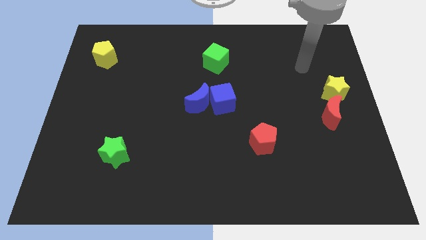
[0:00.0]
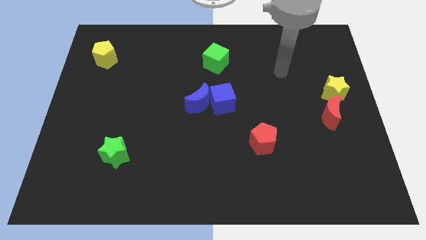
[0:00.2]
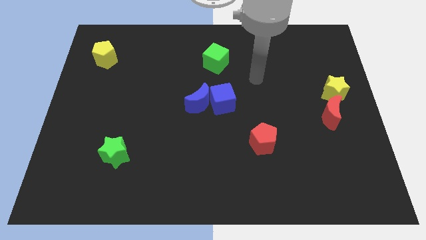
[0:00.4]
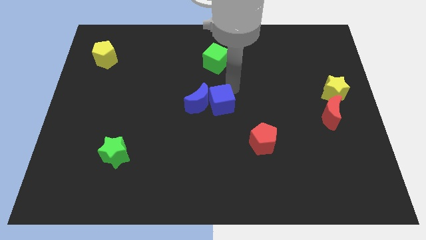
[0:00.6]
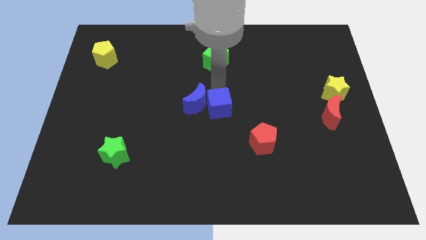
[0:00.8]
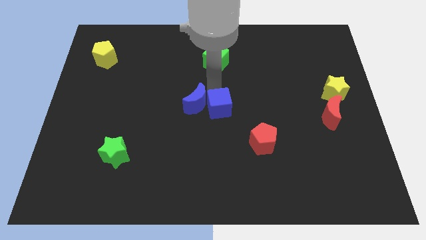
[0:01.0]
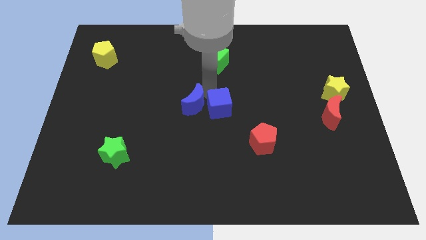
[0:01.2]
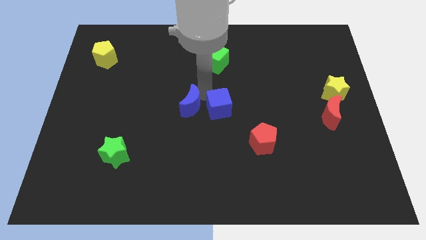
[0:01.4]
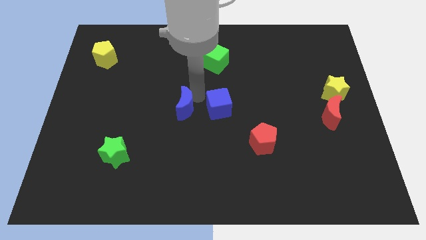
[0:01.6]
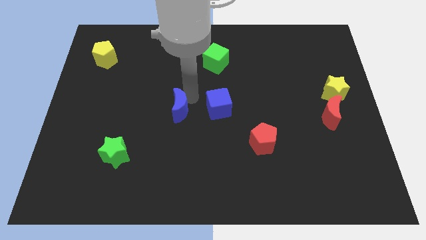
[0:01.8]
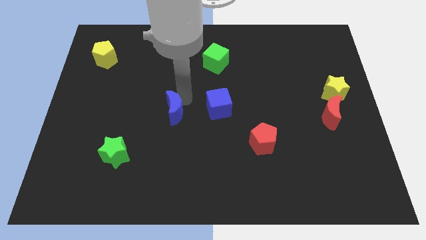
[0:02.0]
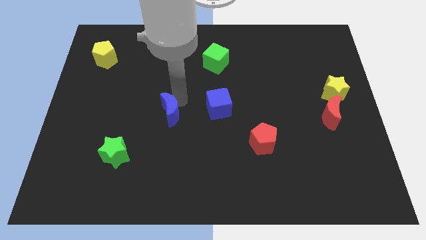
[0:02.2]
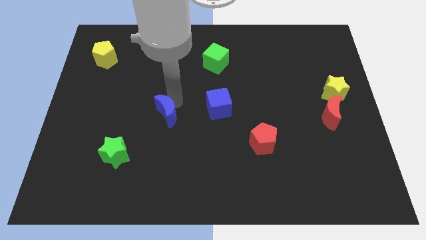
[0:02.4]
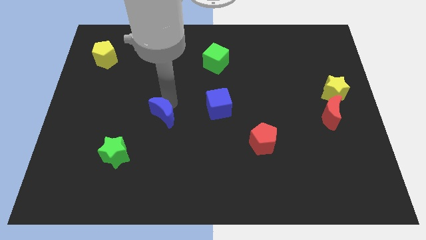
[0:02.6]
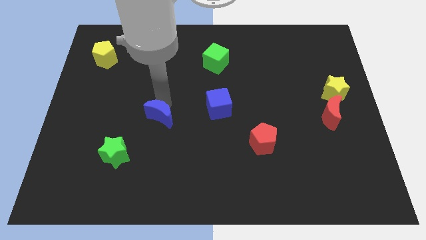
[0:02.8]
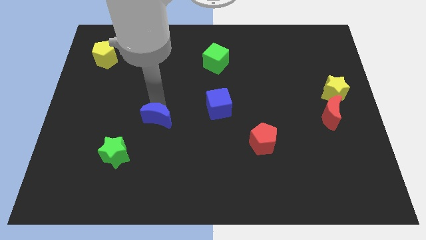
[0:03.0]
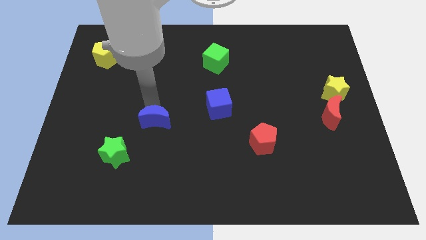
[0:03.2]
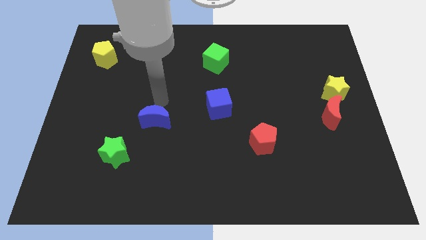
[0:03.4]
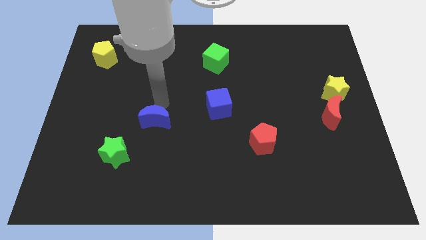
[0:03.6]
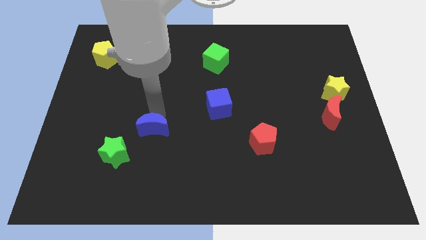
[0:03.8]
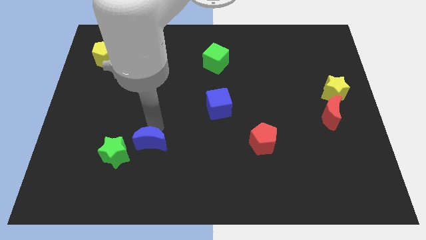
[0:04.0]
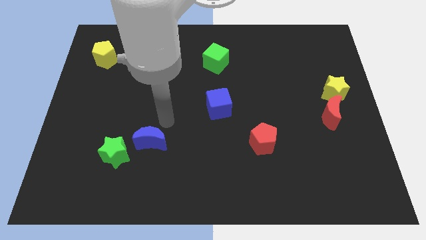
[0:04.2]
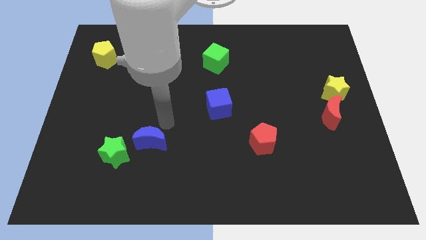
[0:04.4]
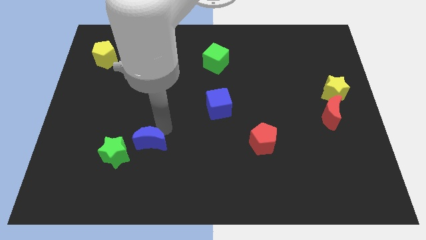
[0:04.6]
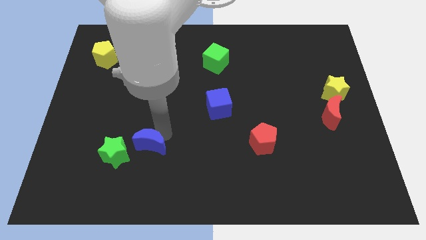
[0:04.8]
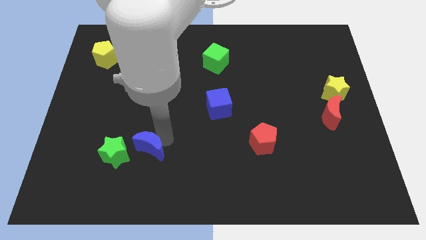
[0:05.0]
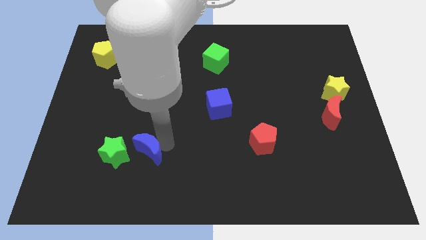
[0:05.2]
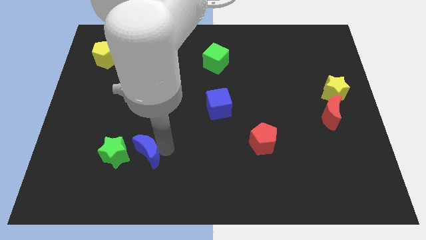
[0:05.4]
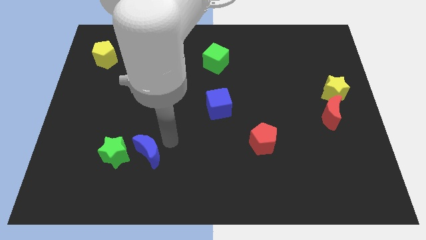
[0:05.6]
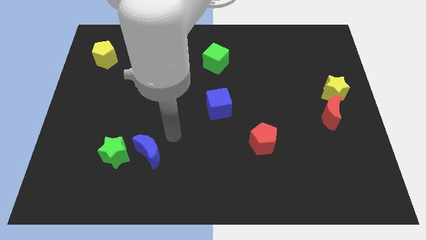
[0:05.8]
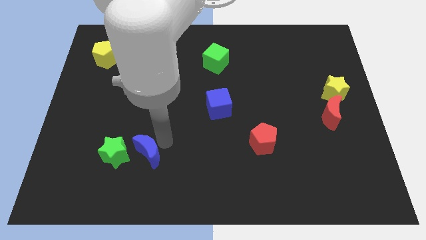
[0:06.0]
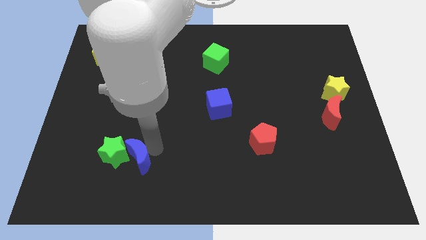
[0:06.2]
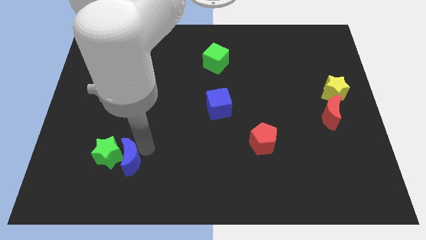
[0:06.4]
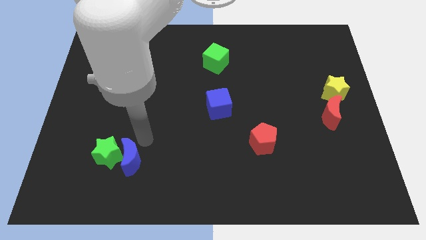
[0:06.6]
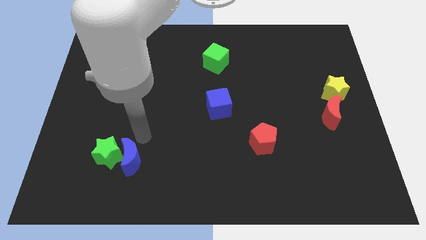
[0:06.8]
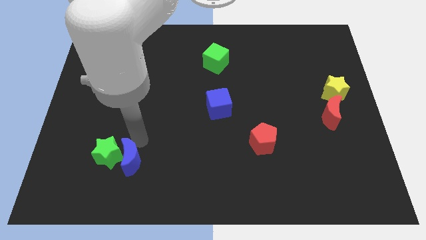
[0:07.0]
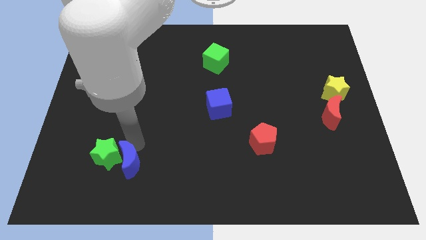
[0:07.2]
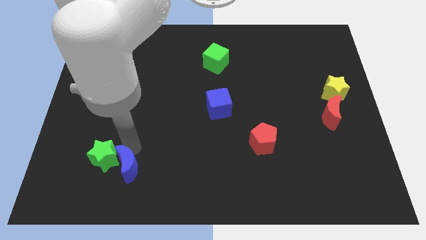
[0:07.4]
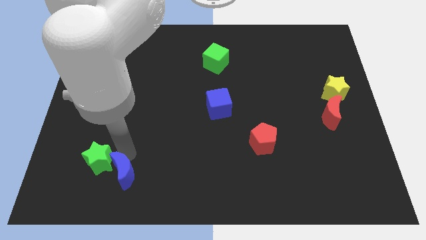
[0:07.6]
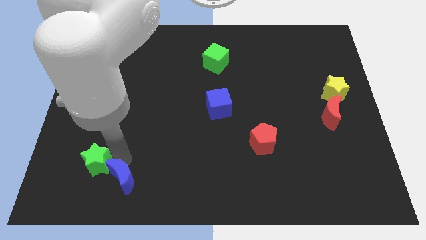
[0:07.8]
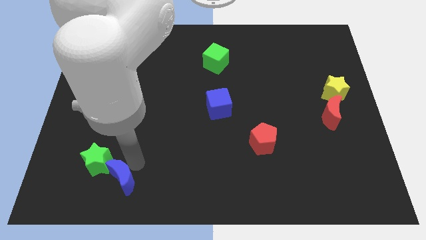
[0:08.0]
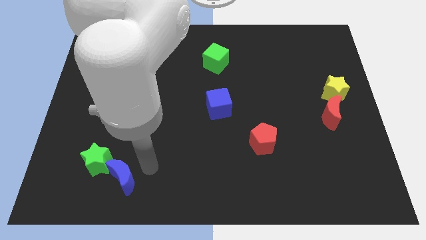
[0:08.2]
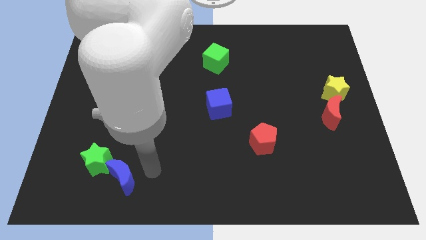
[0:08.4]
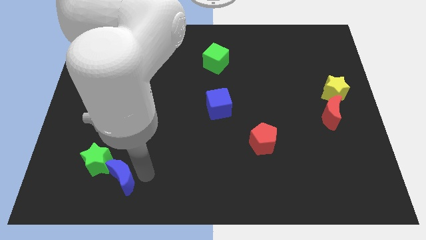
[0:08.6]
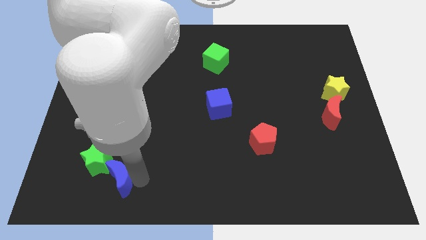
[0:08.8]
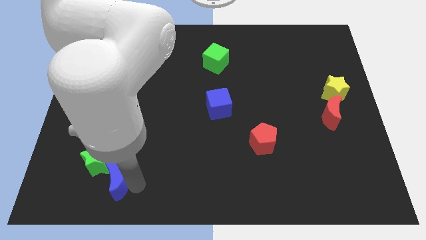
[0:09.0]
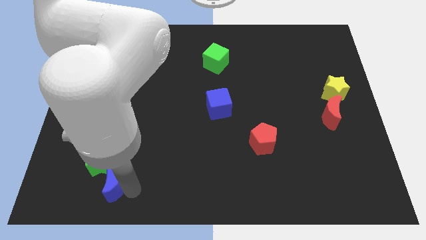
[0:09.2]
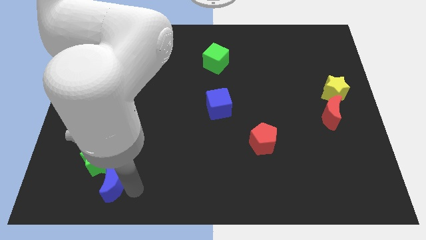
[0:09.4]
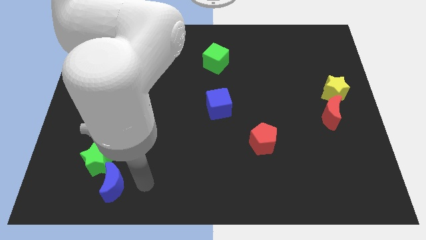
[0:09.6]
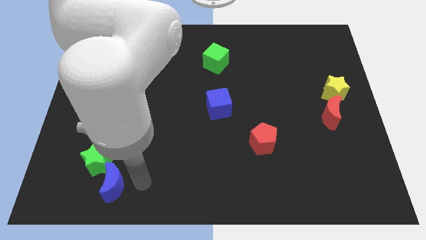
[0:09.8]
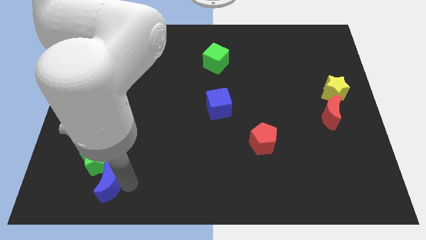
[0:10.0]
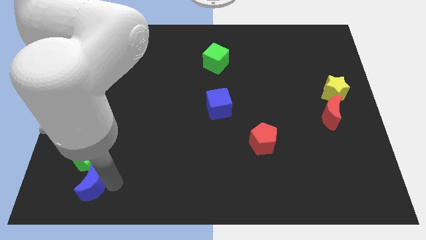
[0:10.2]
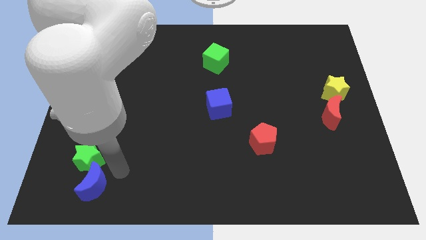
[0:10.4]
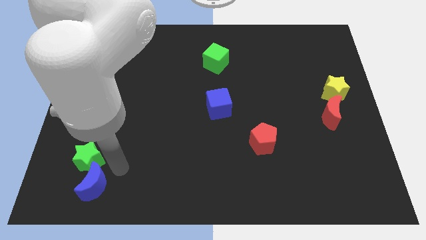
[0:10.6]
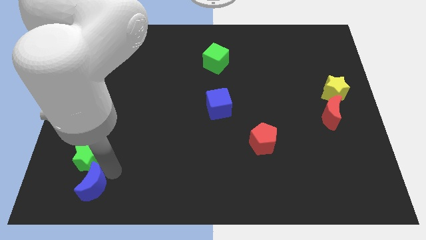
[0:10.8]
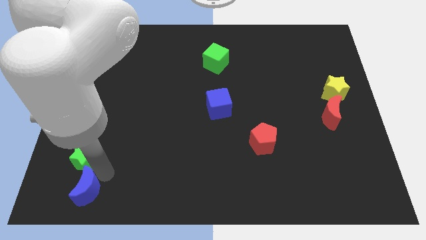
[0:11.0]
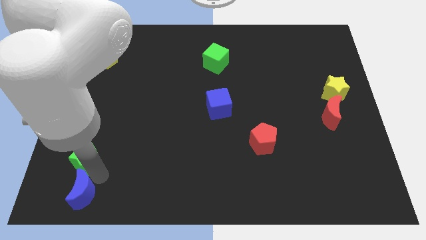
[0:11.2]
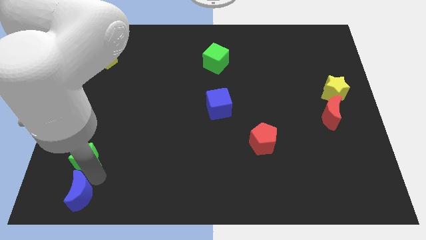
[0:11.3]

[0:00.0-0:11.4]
put the blue moon to the bottom left corner

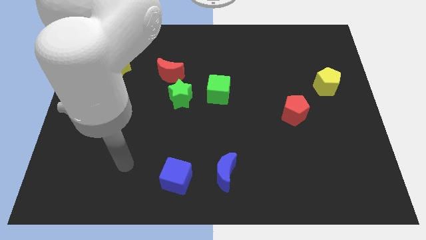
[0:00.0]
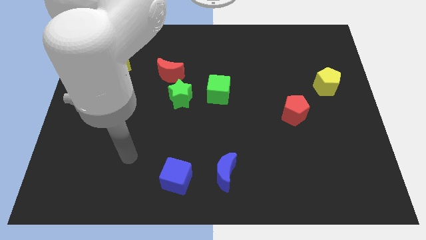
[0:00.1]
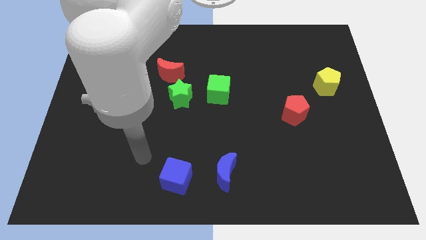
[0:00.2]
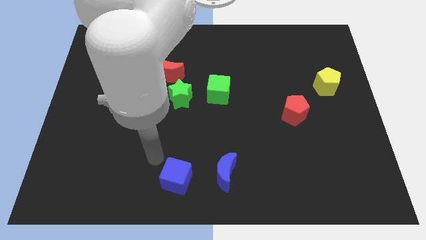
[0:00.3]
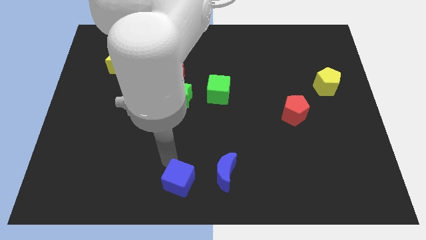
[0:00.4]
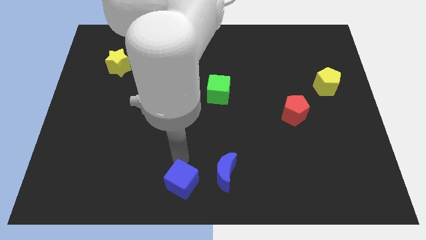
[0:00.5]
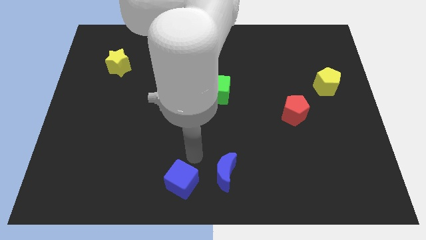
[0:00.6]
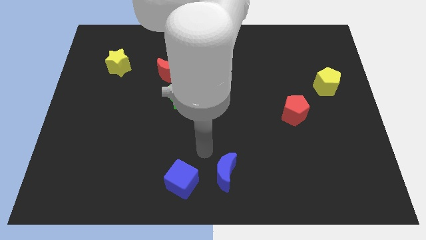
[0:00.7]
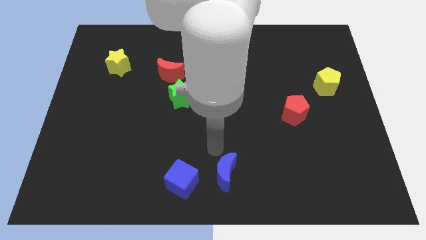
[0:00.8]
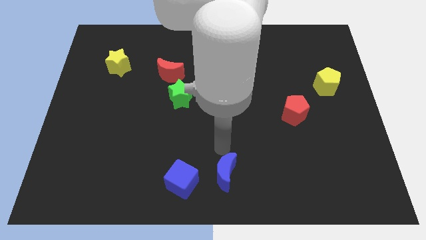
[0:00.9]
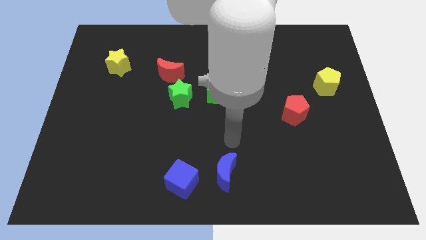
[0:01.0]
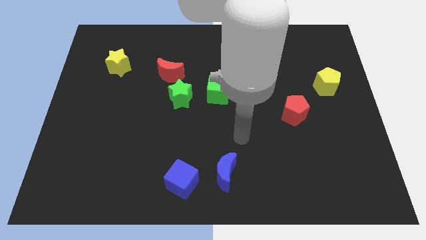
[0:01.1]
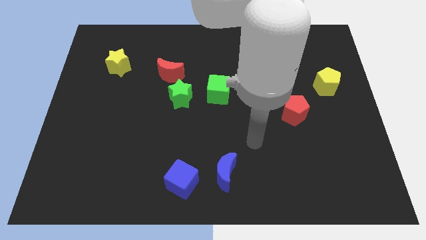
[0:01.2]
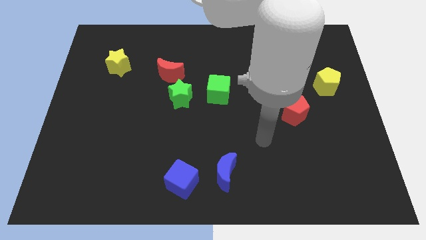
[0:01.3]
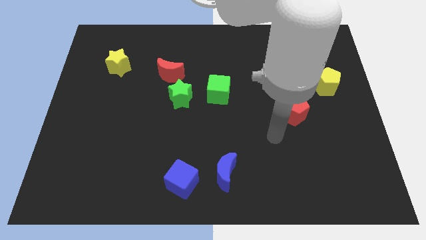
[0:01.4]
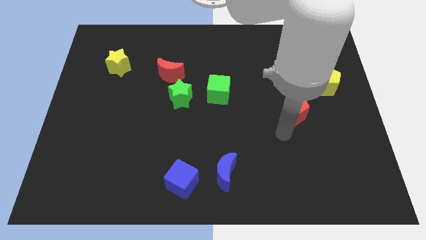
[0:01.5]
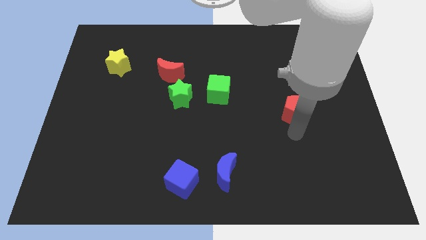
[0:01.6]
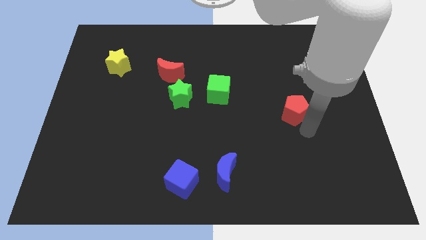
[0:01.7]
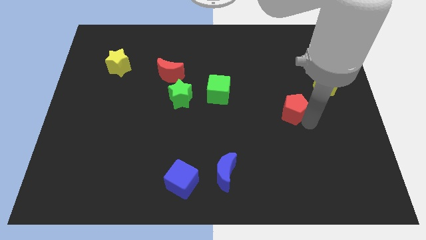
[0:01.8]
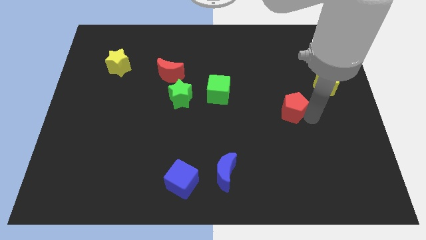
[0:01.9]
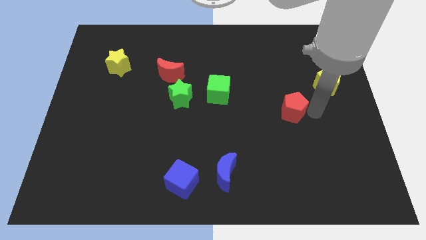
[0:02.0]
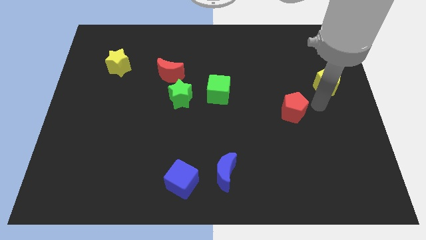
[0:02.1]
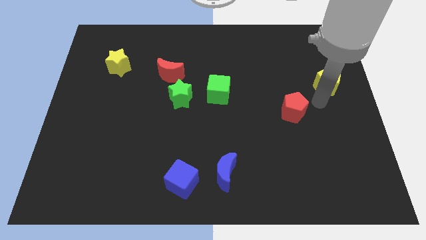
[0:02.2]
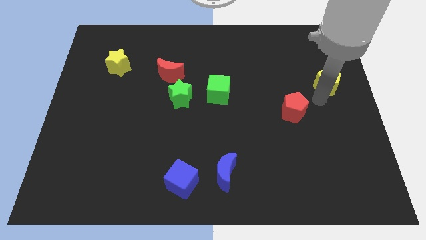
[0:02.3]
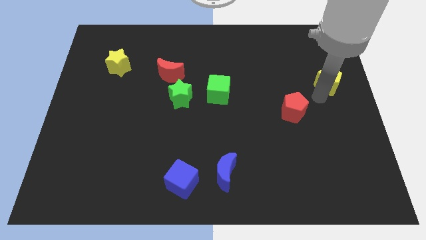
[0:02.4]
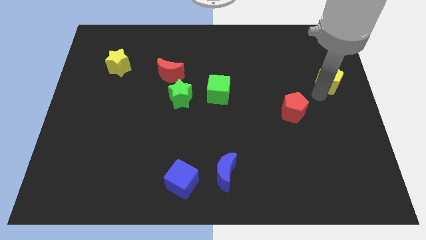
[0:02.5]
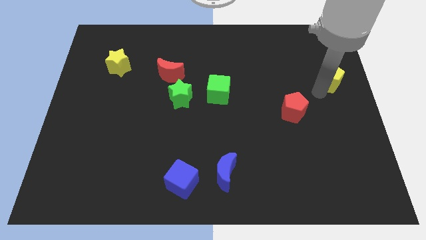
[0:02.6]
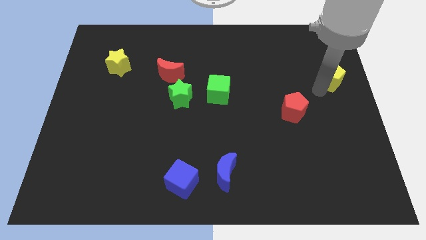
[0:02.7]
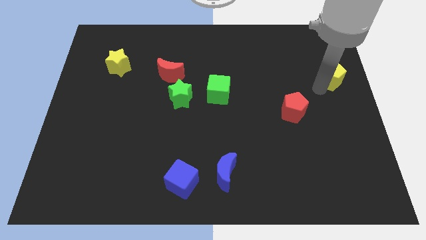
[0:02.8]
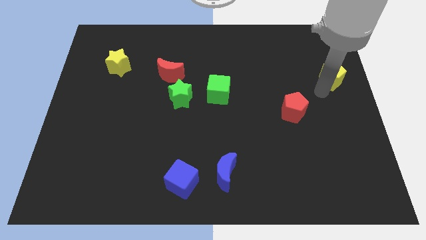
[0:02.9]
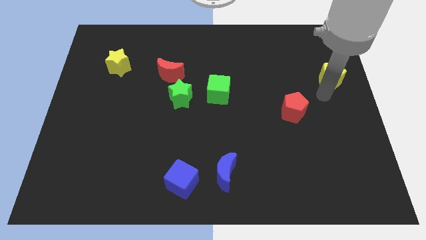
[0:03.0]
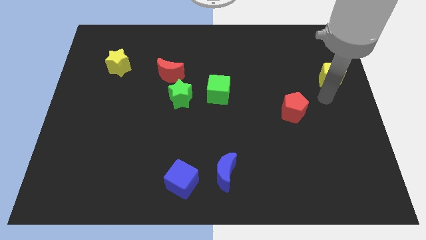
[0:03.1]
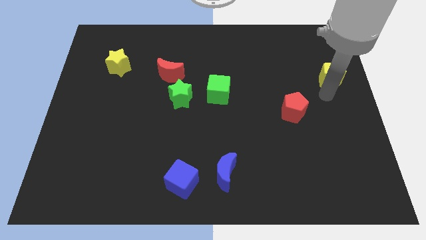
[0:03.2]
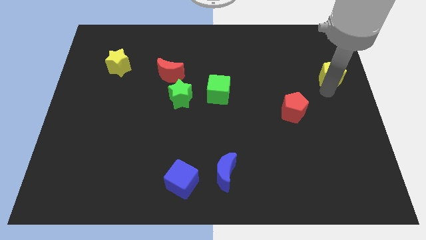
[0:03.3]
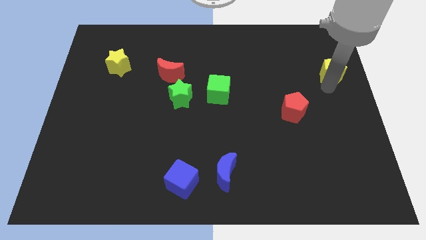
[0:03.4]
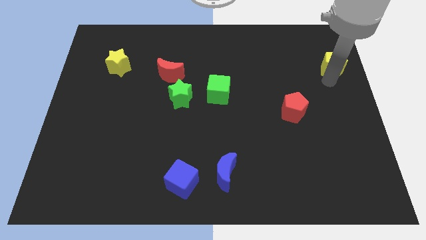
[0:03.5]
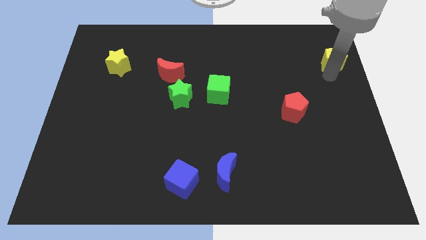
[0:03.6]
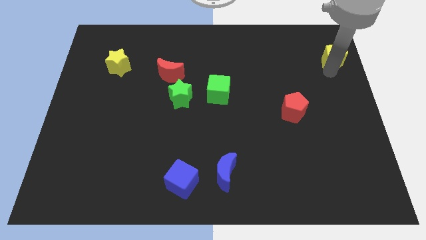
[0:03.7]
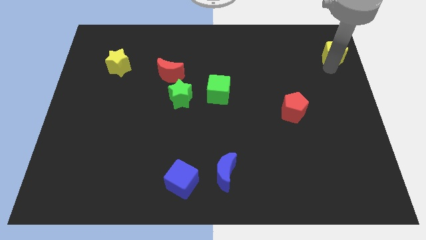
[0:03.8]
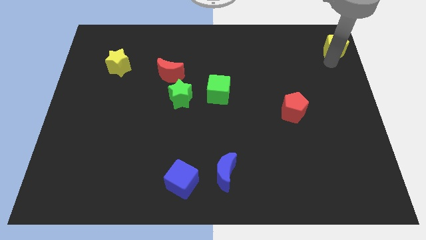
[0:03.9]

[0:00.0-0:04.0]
push the yellow pentagon to the top right of the board
